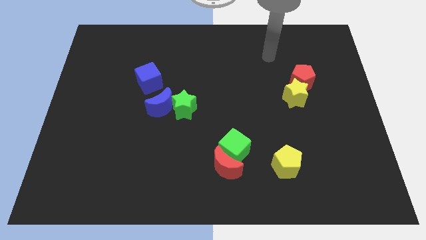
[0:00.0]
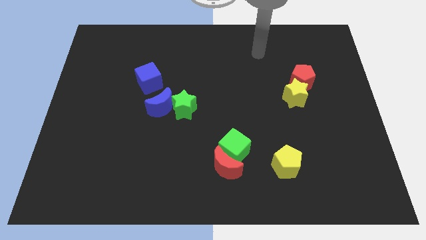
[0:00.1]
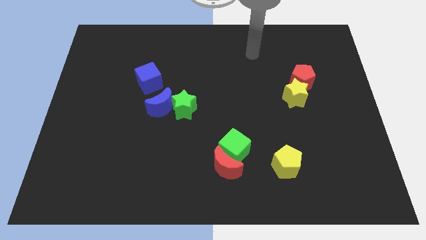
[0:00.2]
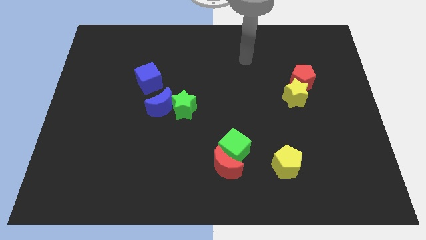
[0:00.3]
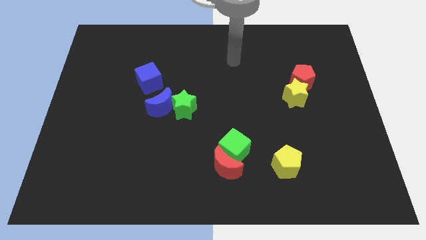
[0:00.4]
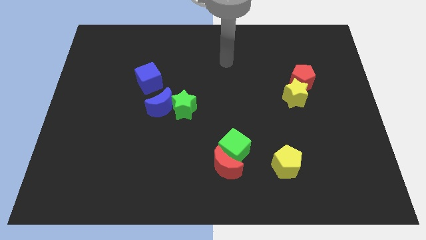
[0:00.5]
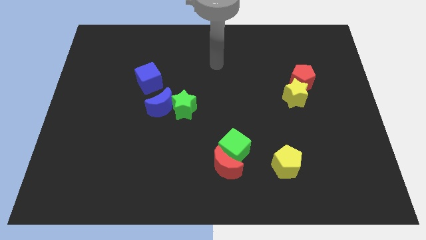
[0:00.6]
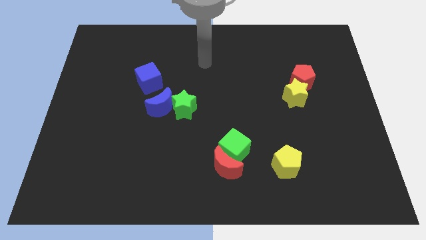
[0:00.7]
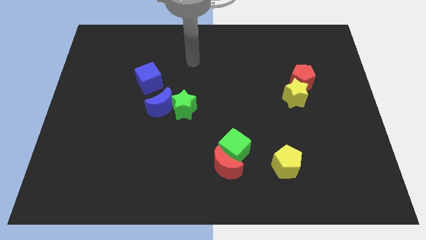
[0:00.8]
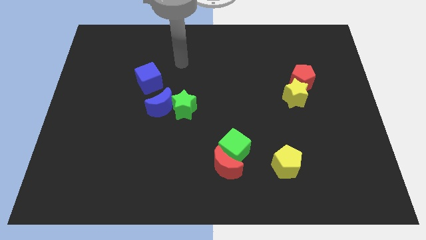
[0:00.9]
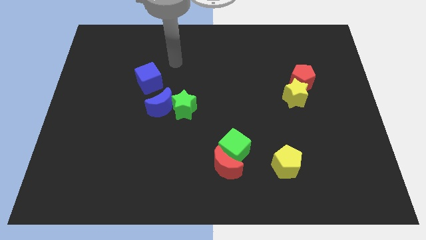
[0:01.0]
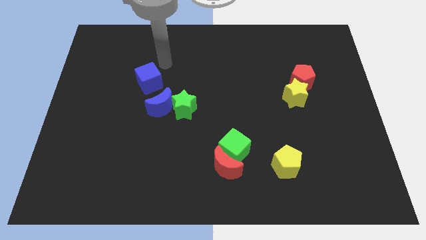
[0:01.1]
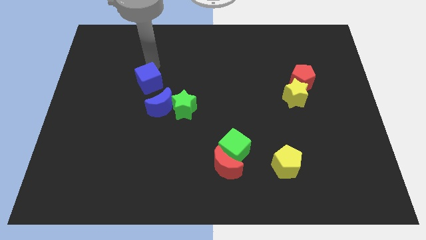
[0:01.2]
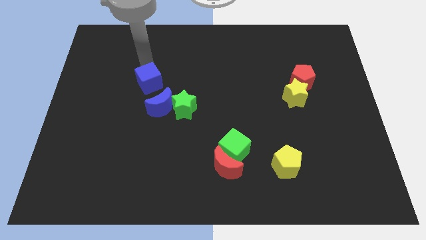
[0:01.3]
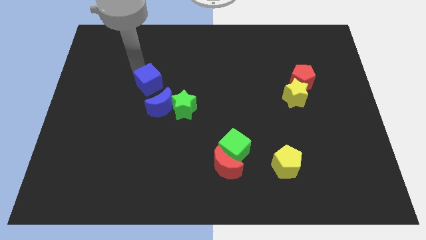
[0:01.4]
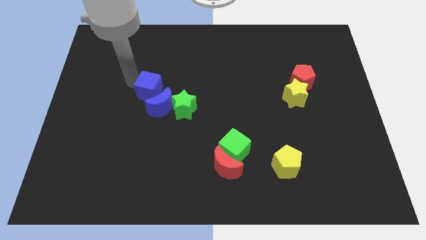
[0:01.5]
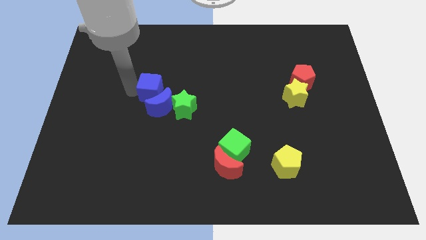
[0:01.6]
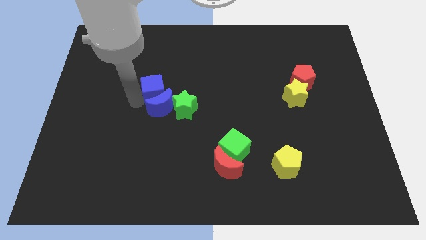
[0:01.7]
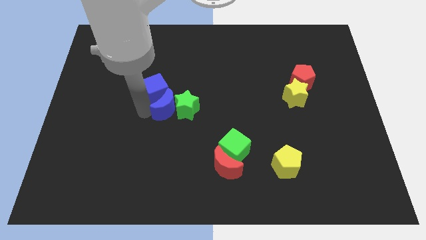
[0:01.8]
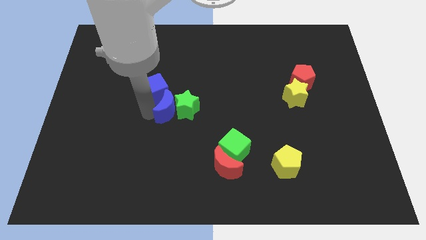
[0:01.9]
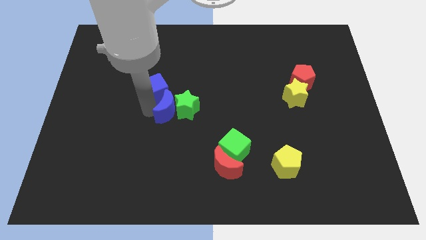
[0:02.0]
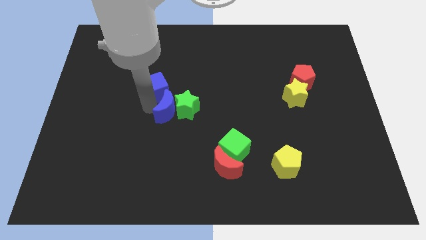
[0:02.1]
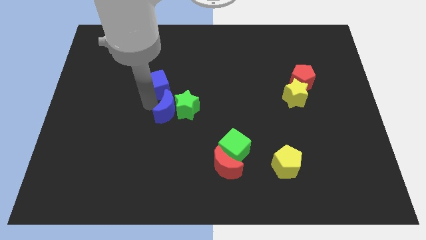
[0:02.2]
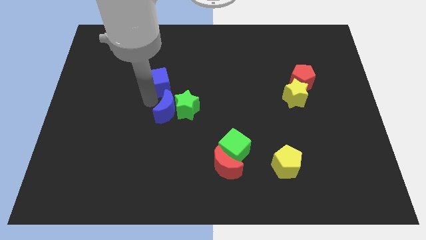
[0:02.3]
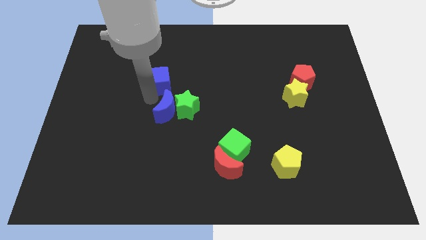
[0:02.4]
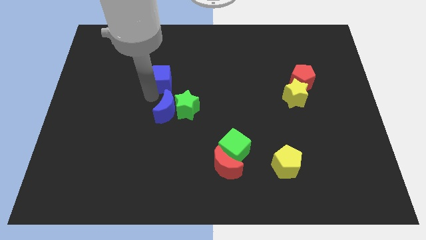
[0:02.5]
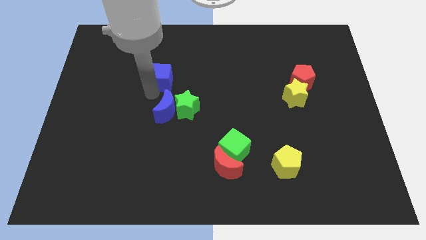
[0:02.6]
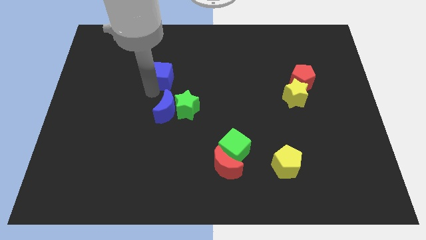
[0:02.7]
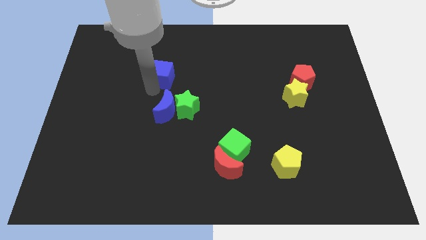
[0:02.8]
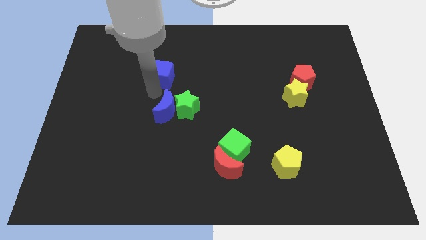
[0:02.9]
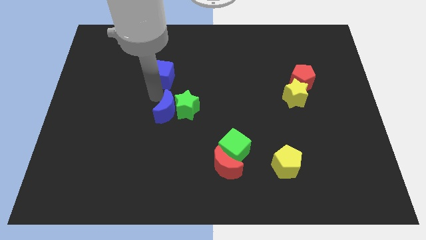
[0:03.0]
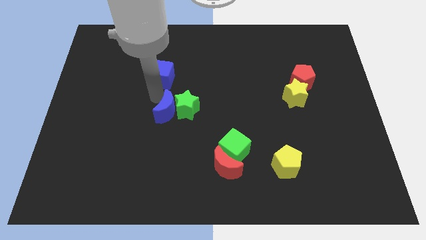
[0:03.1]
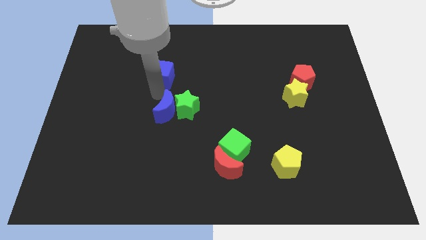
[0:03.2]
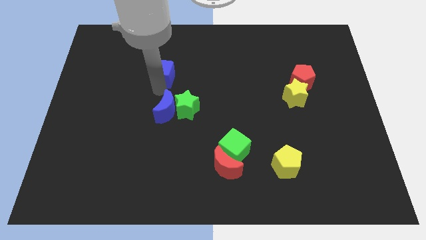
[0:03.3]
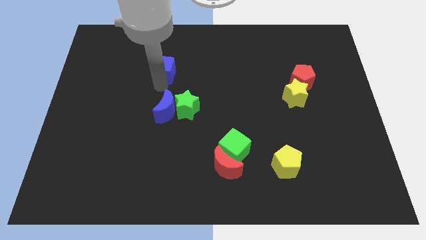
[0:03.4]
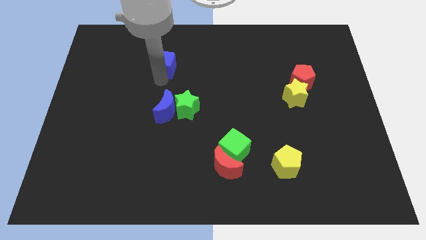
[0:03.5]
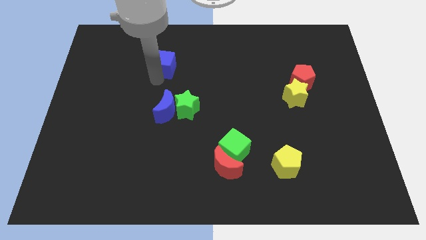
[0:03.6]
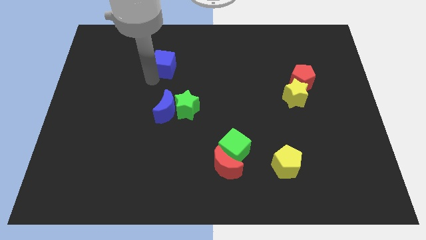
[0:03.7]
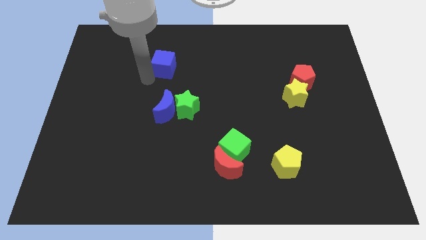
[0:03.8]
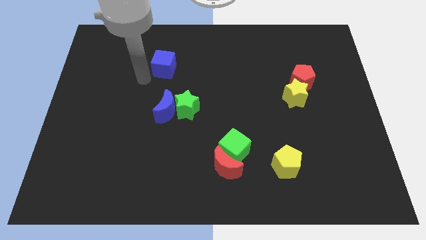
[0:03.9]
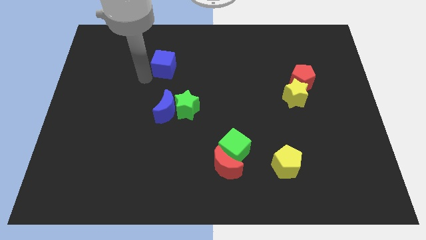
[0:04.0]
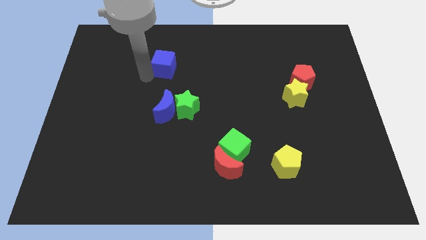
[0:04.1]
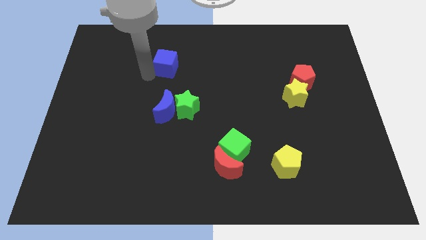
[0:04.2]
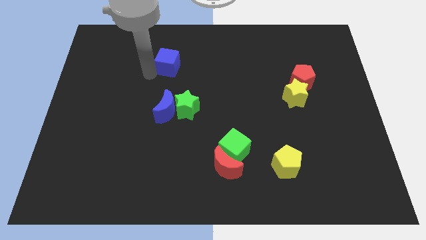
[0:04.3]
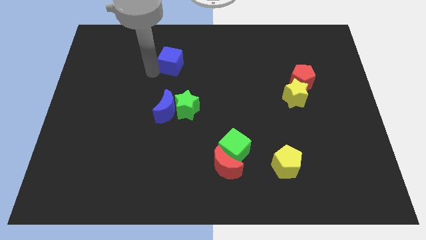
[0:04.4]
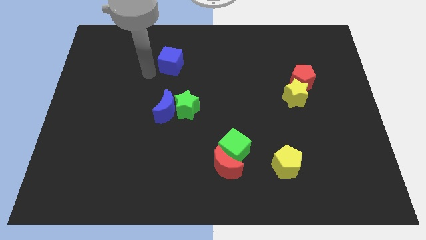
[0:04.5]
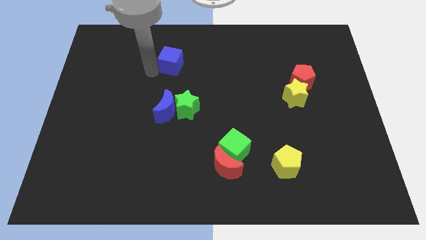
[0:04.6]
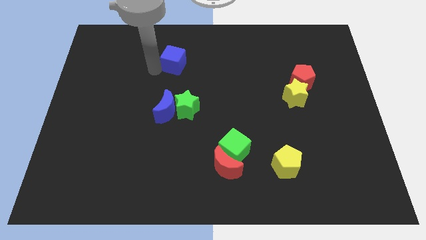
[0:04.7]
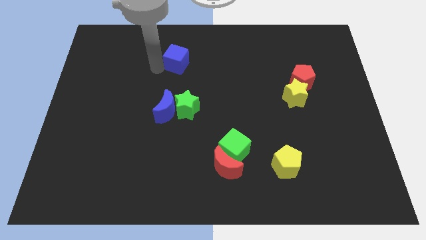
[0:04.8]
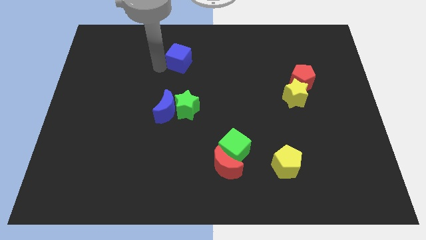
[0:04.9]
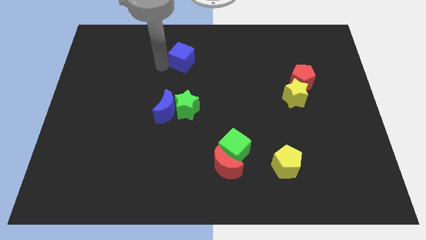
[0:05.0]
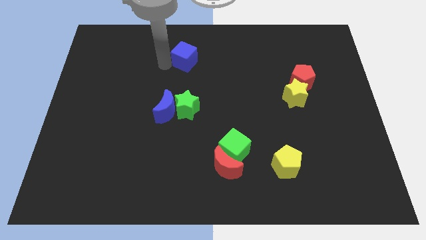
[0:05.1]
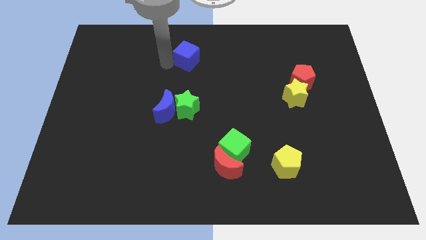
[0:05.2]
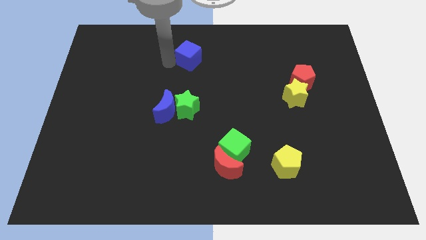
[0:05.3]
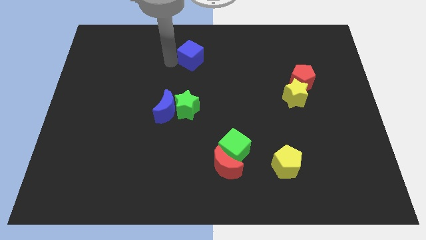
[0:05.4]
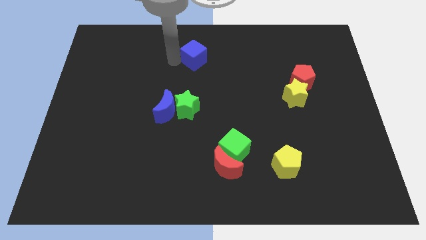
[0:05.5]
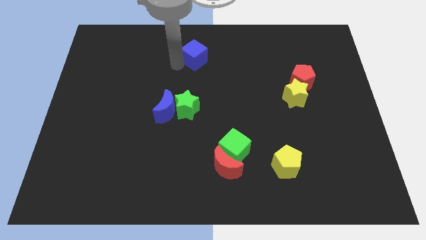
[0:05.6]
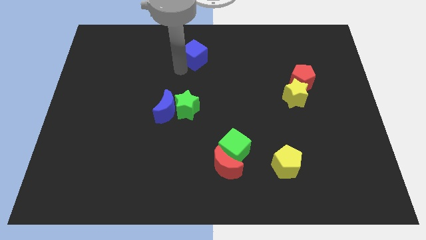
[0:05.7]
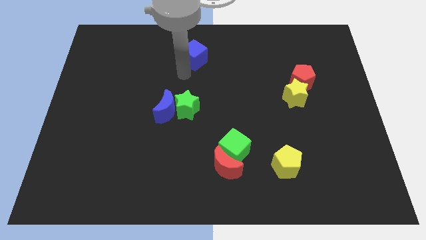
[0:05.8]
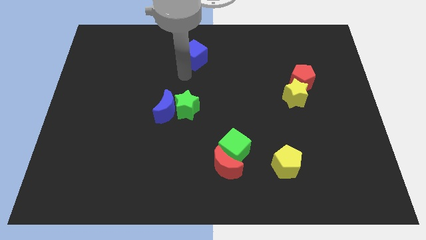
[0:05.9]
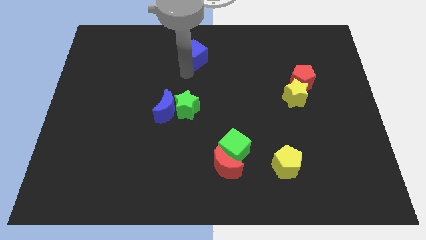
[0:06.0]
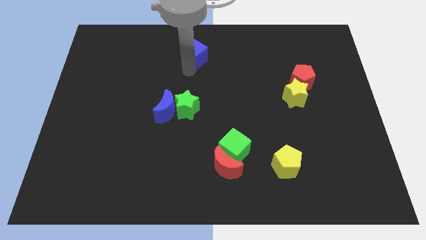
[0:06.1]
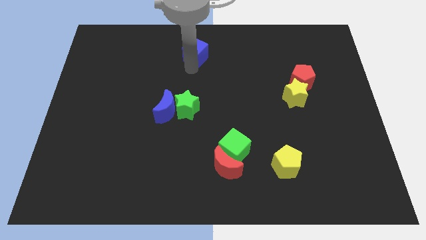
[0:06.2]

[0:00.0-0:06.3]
push the blue cube to the top
